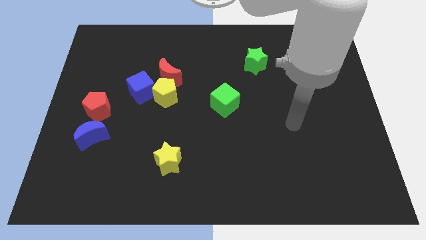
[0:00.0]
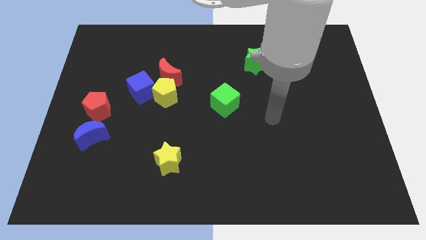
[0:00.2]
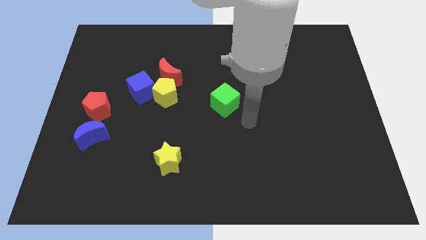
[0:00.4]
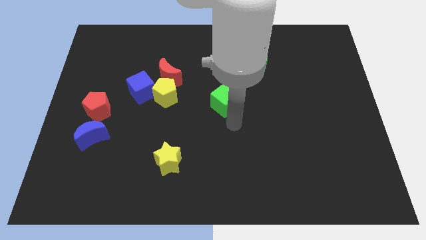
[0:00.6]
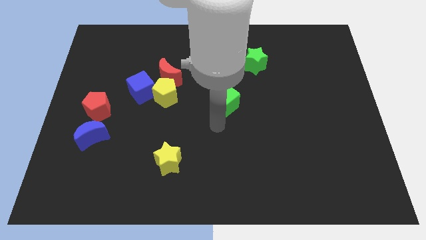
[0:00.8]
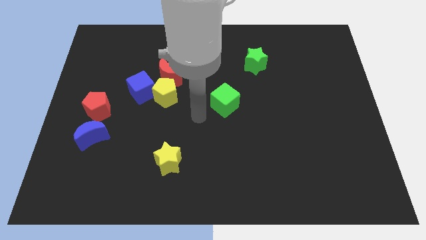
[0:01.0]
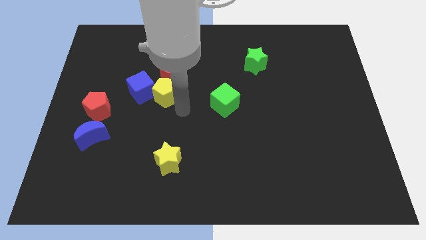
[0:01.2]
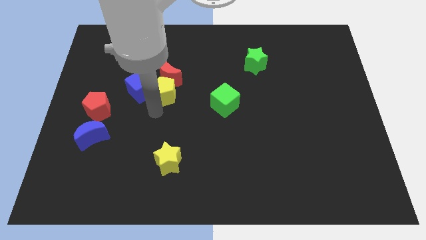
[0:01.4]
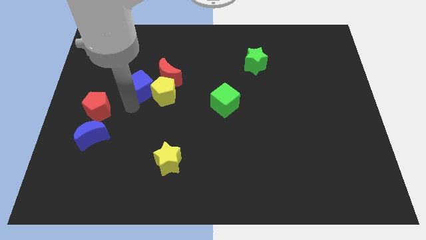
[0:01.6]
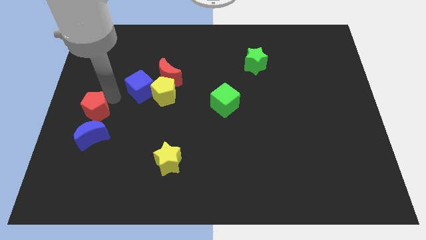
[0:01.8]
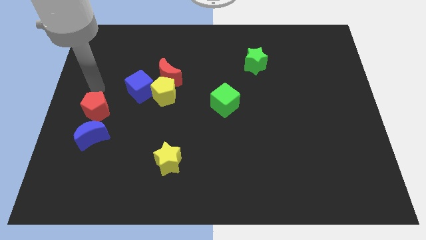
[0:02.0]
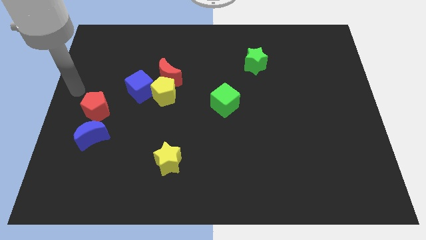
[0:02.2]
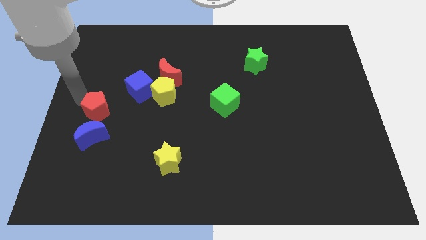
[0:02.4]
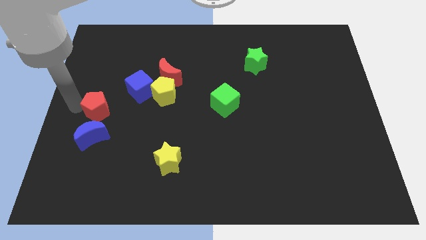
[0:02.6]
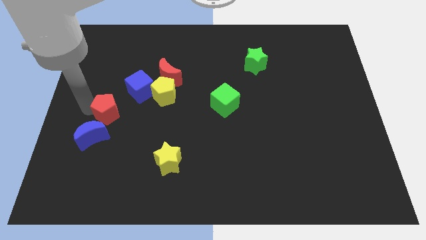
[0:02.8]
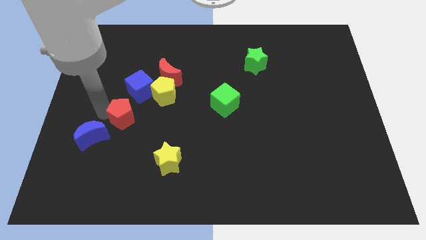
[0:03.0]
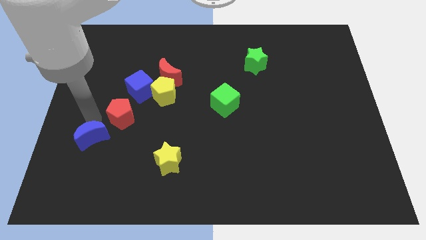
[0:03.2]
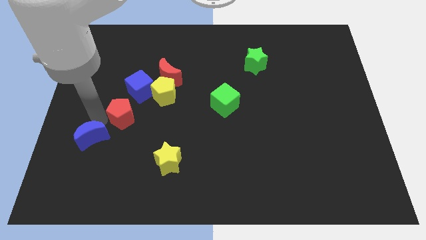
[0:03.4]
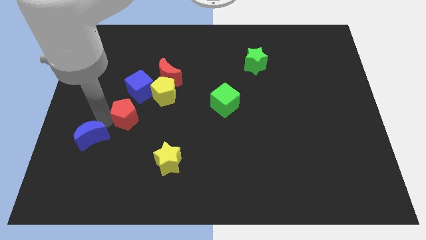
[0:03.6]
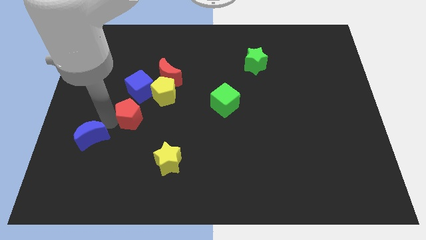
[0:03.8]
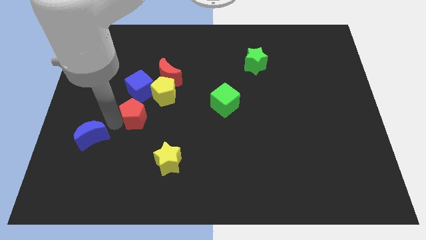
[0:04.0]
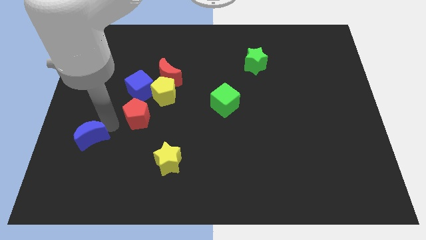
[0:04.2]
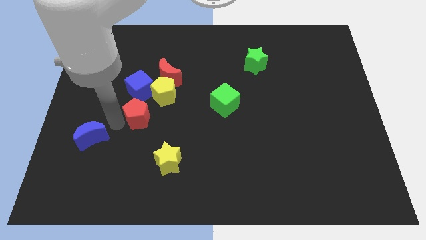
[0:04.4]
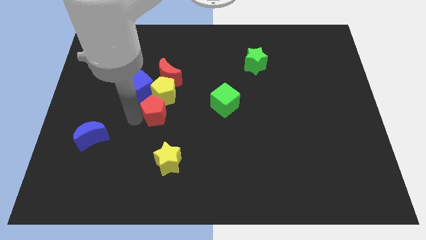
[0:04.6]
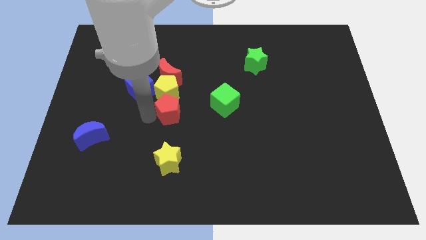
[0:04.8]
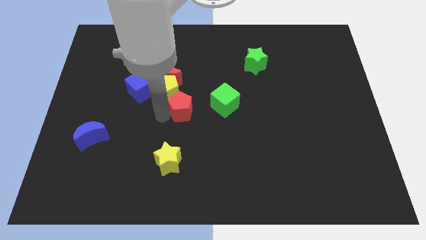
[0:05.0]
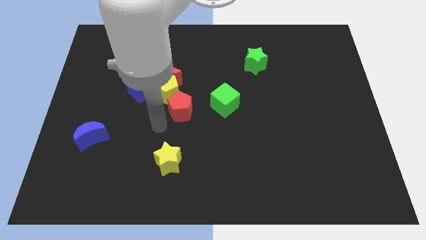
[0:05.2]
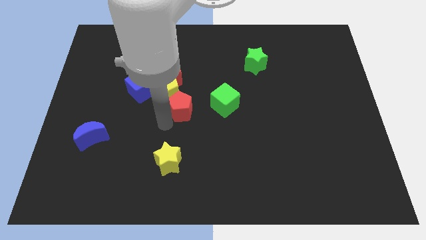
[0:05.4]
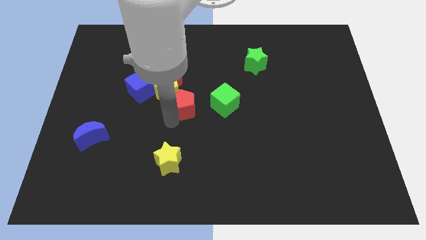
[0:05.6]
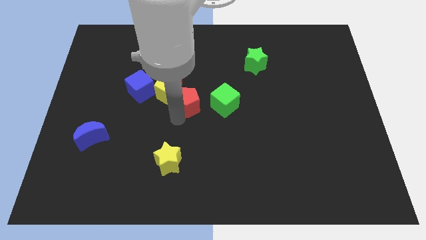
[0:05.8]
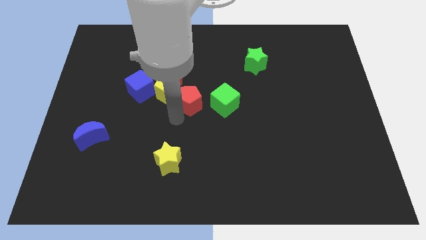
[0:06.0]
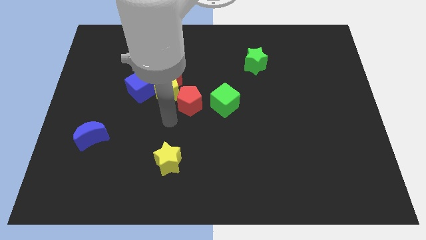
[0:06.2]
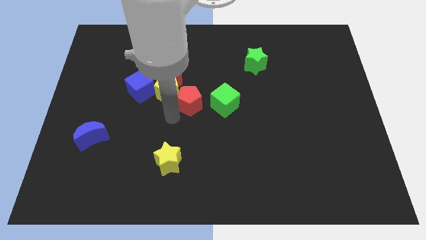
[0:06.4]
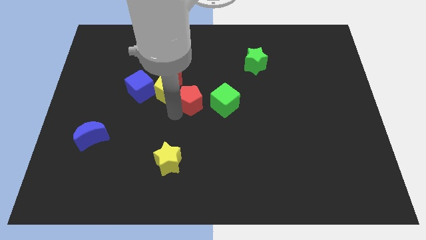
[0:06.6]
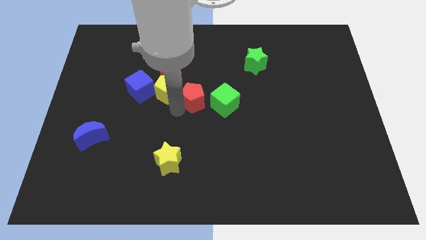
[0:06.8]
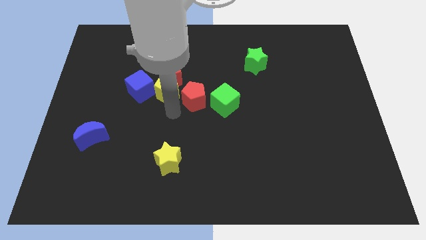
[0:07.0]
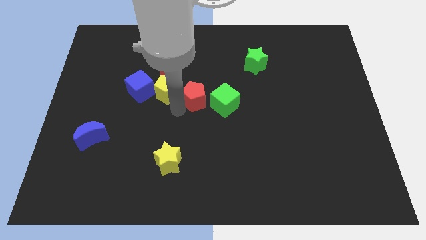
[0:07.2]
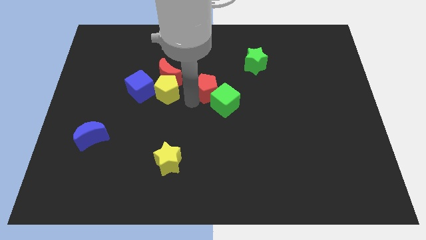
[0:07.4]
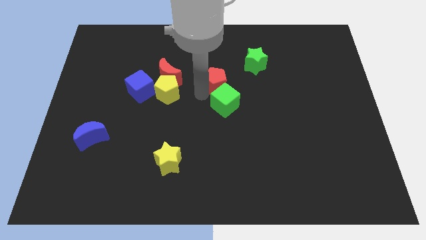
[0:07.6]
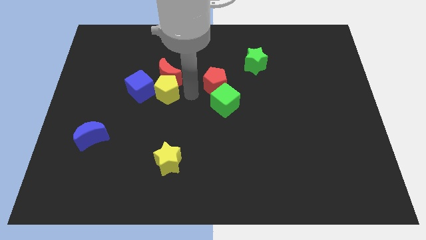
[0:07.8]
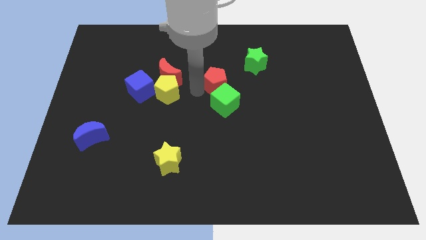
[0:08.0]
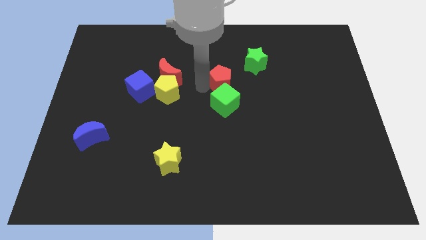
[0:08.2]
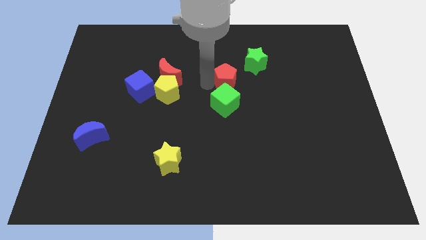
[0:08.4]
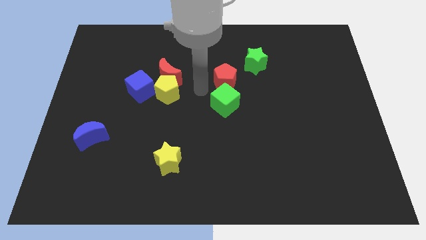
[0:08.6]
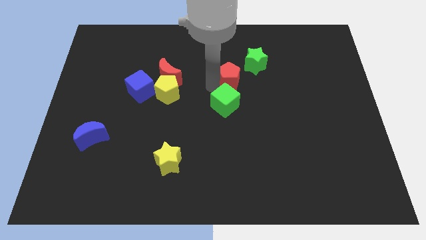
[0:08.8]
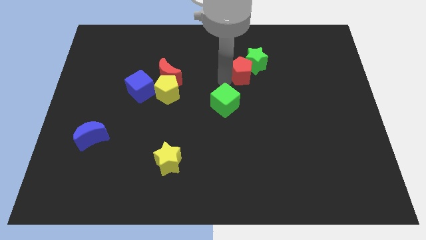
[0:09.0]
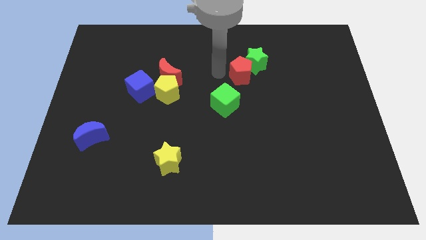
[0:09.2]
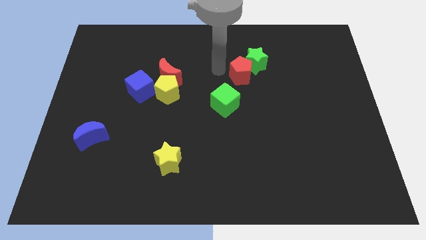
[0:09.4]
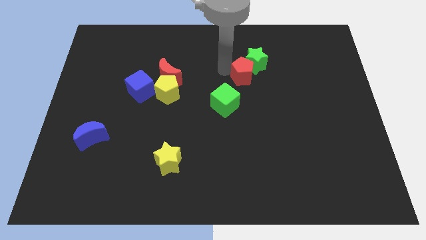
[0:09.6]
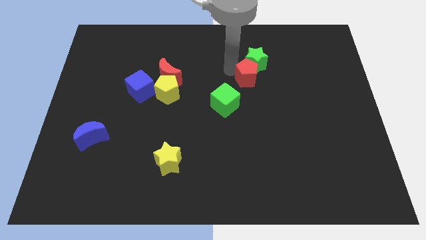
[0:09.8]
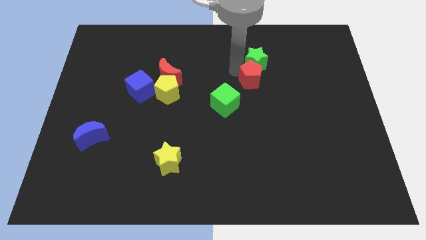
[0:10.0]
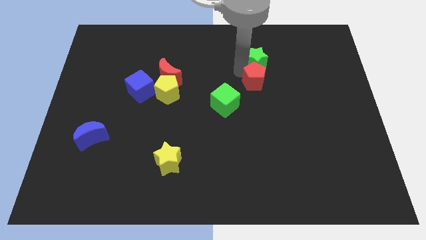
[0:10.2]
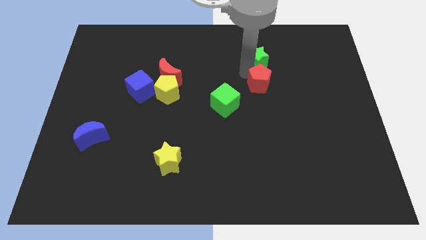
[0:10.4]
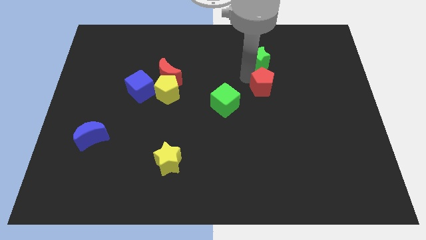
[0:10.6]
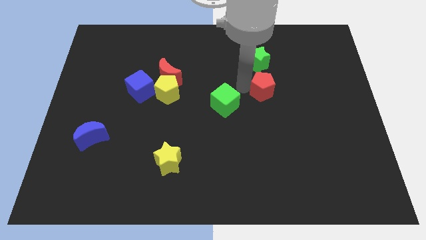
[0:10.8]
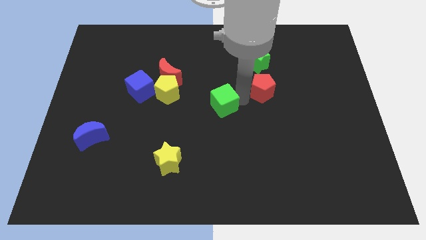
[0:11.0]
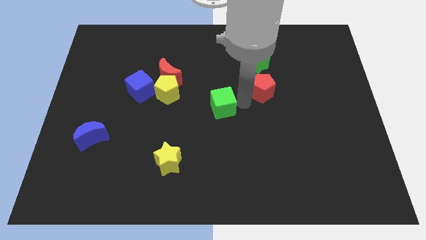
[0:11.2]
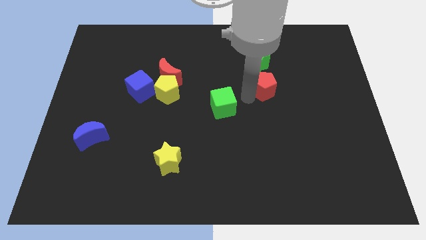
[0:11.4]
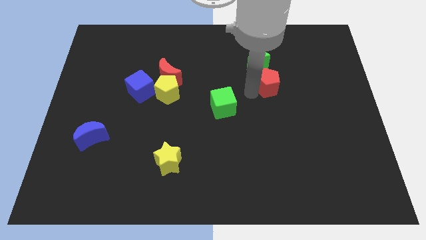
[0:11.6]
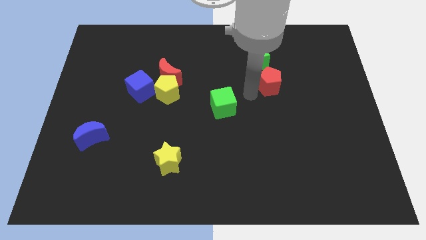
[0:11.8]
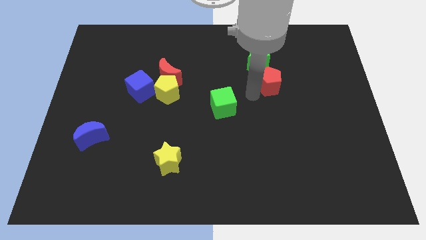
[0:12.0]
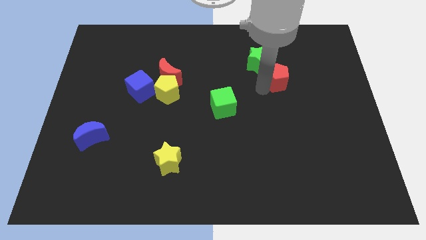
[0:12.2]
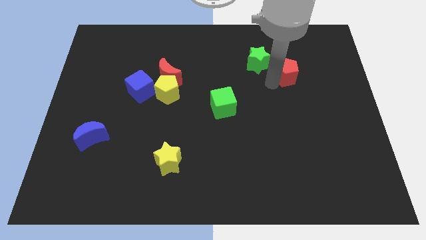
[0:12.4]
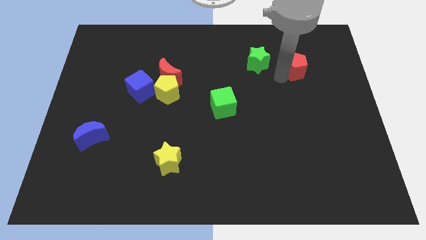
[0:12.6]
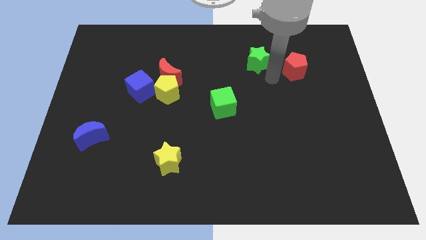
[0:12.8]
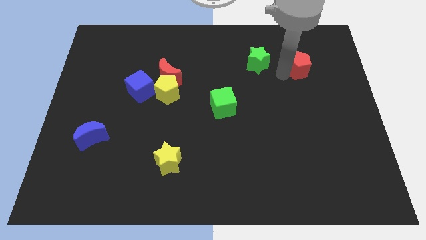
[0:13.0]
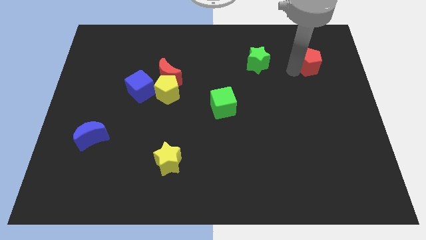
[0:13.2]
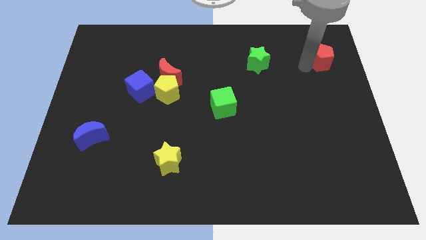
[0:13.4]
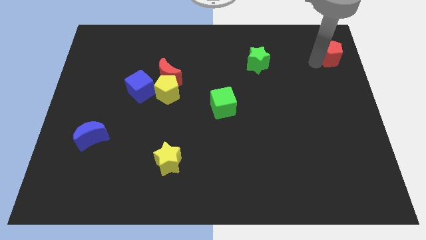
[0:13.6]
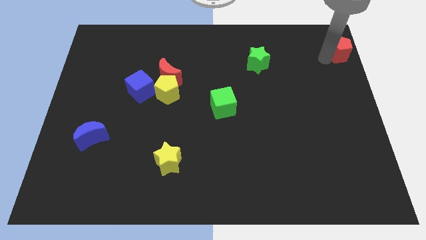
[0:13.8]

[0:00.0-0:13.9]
put the red pentagon to the upper right corner
